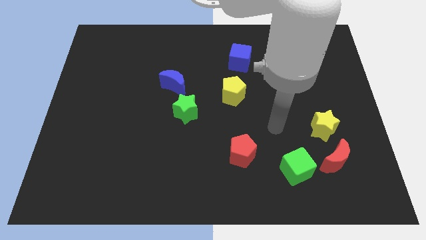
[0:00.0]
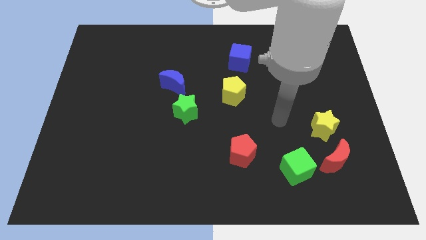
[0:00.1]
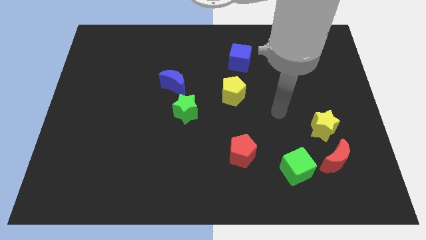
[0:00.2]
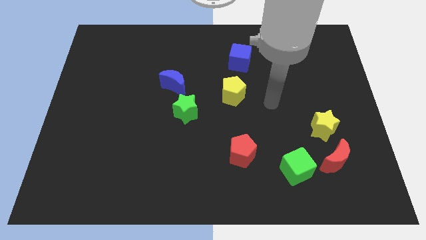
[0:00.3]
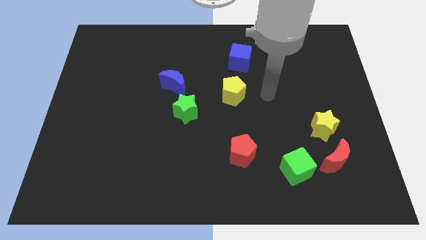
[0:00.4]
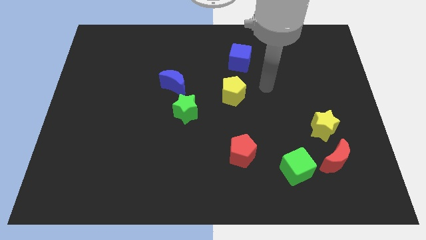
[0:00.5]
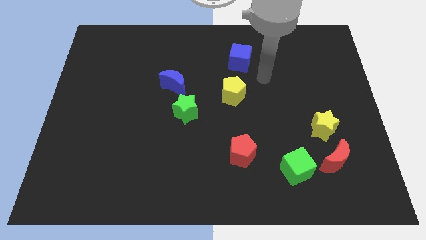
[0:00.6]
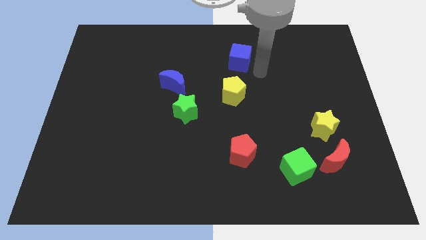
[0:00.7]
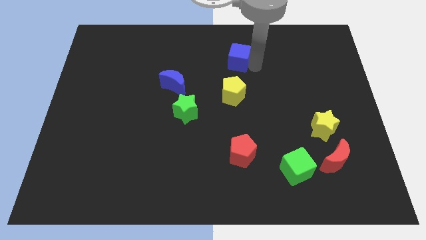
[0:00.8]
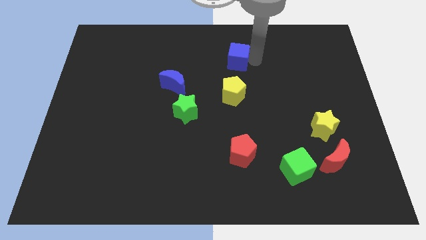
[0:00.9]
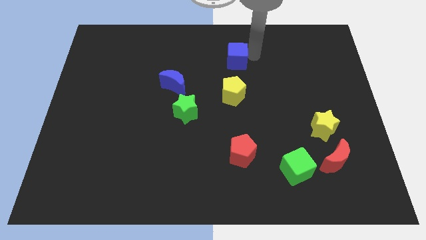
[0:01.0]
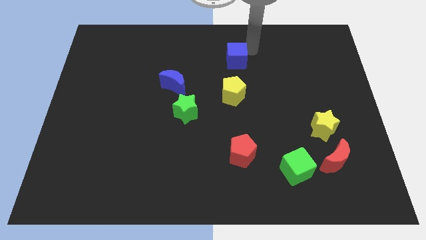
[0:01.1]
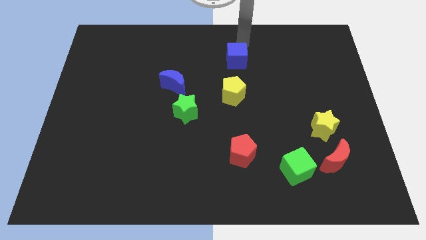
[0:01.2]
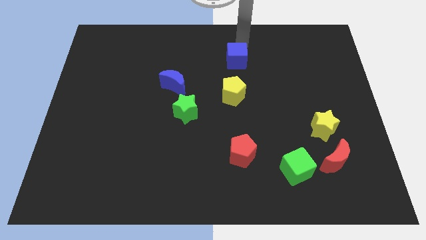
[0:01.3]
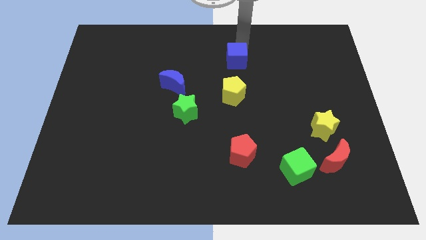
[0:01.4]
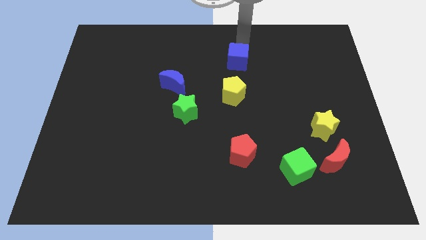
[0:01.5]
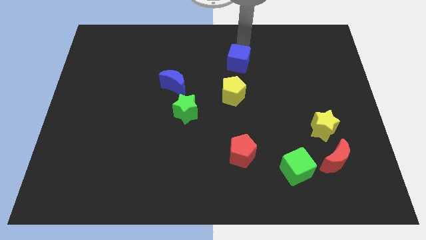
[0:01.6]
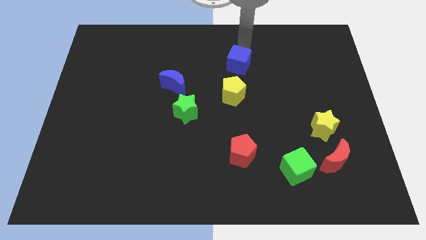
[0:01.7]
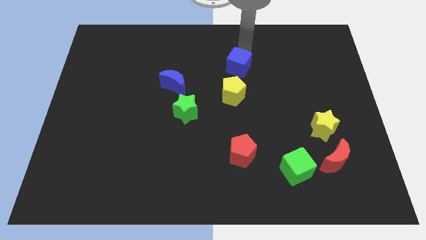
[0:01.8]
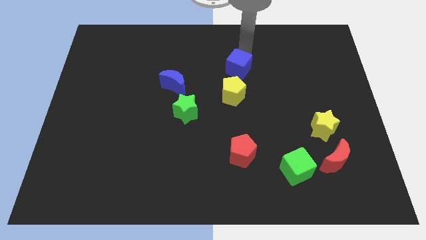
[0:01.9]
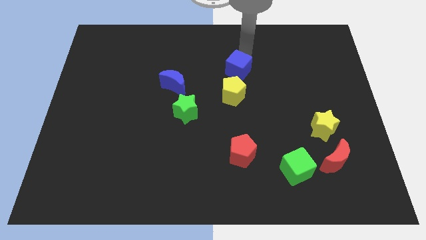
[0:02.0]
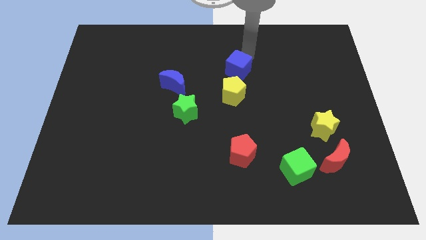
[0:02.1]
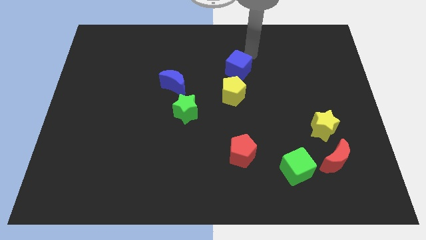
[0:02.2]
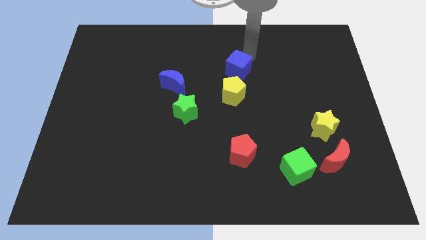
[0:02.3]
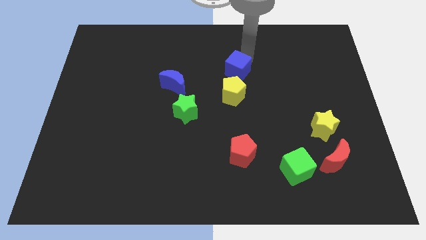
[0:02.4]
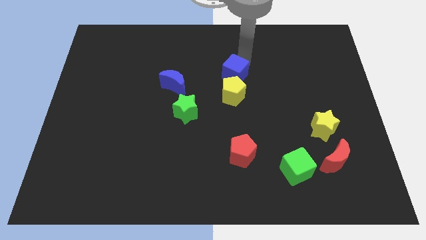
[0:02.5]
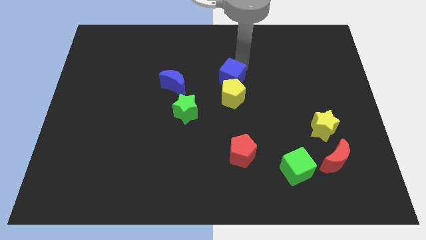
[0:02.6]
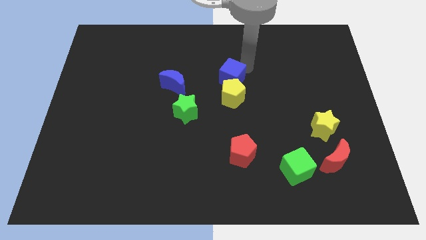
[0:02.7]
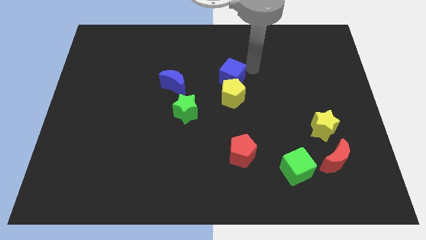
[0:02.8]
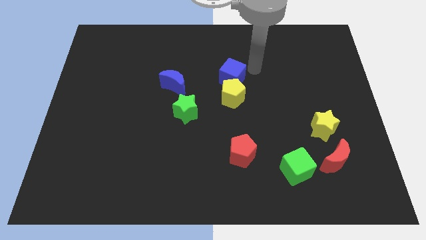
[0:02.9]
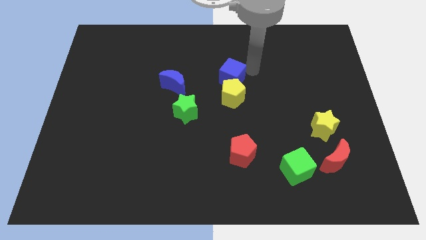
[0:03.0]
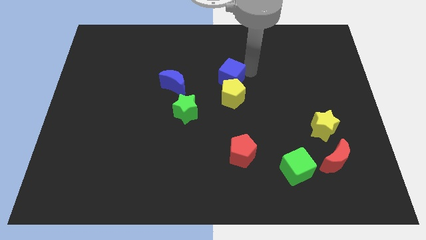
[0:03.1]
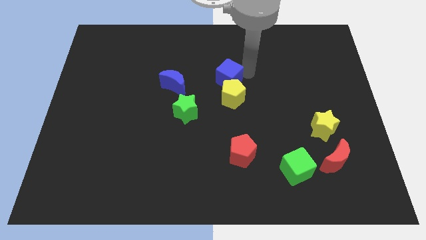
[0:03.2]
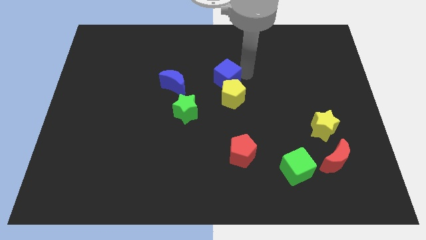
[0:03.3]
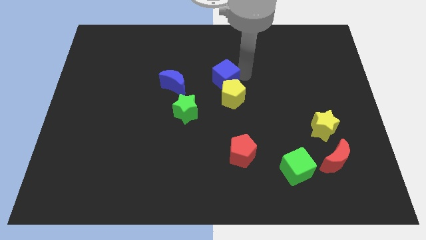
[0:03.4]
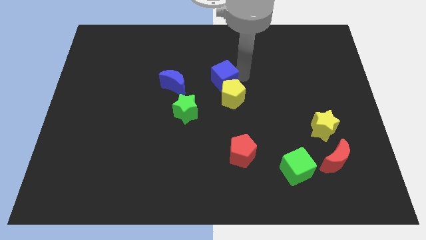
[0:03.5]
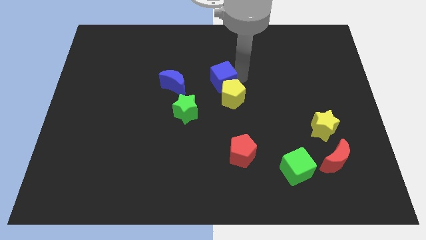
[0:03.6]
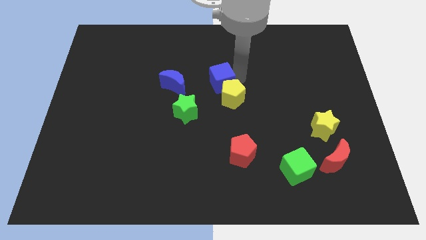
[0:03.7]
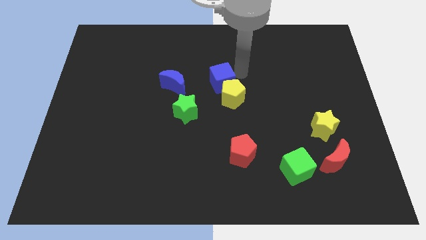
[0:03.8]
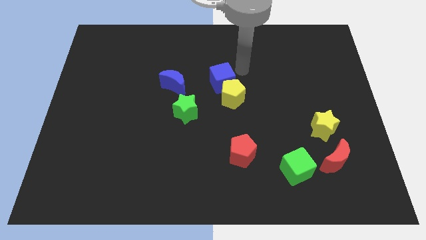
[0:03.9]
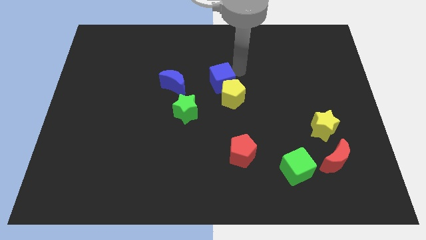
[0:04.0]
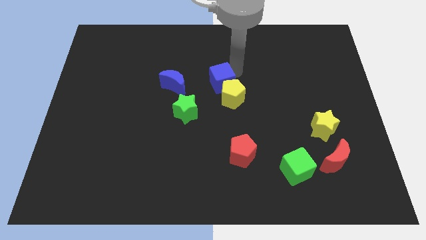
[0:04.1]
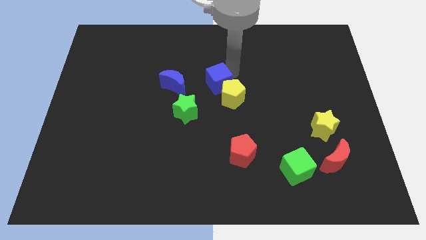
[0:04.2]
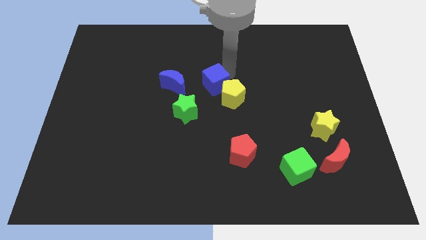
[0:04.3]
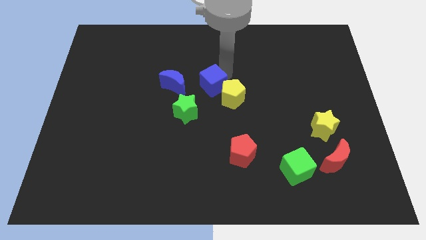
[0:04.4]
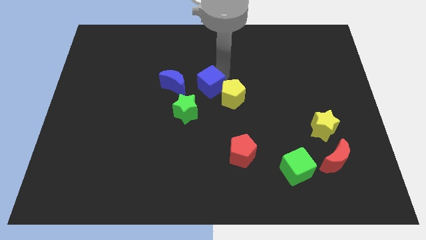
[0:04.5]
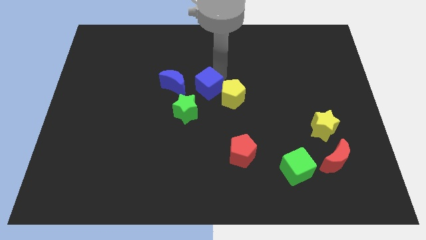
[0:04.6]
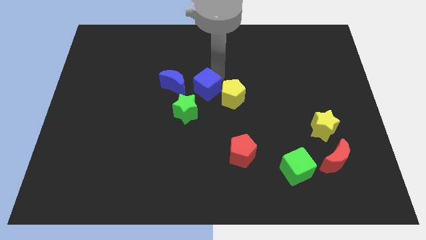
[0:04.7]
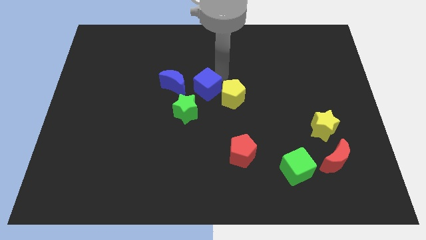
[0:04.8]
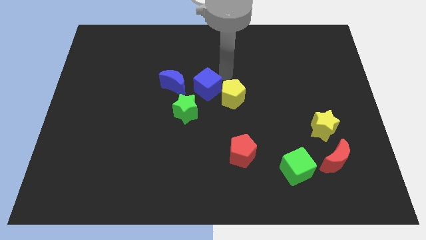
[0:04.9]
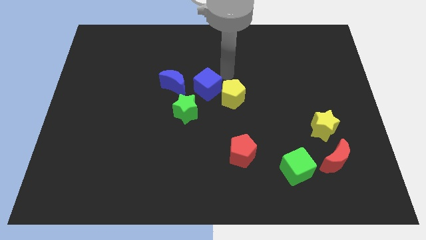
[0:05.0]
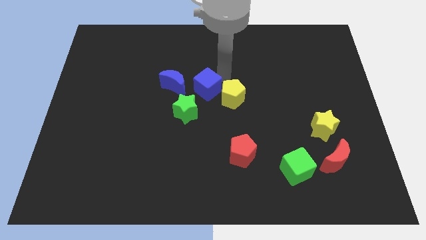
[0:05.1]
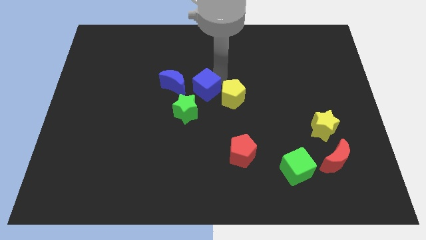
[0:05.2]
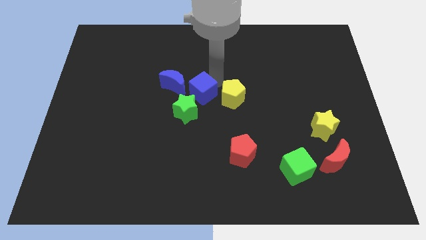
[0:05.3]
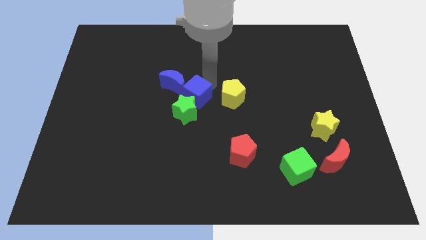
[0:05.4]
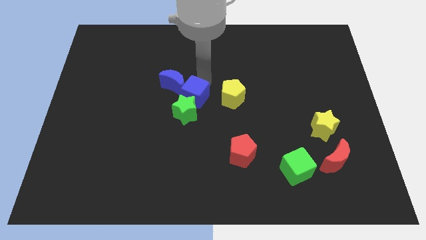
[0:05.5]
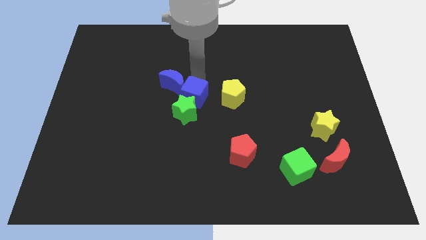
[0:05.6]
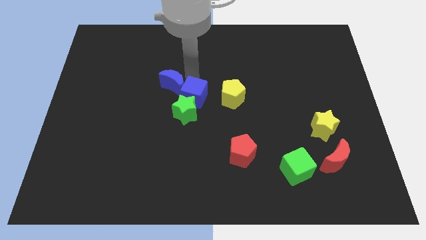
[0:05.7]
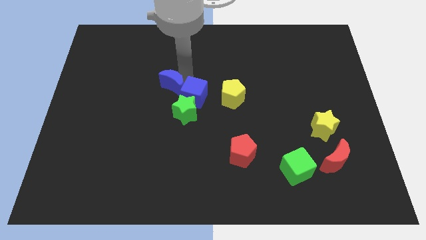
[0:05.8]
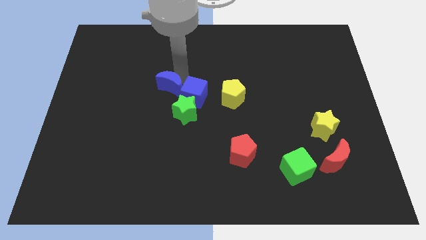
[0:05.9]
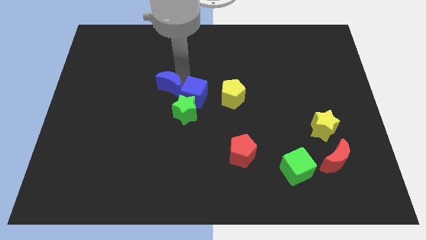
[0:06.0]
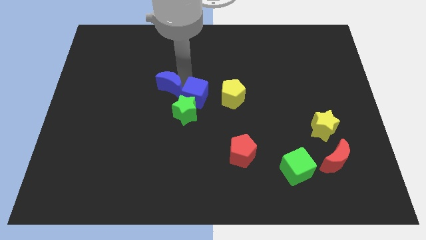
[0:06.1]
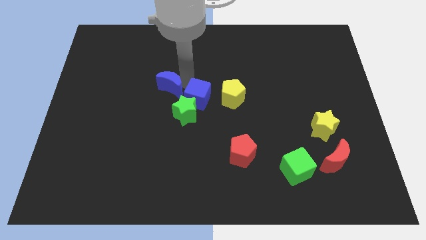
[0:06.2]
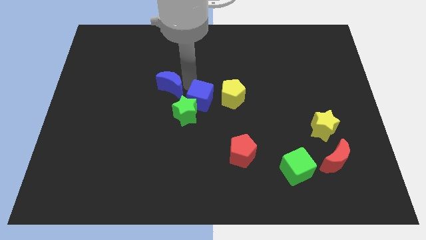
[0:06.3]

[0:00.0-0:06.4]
push the blue cube to the bottom left side of the yellow pentagon

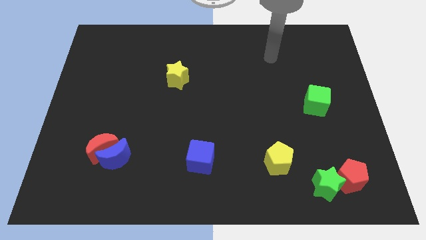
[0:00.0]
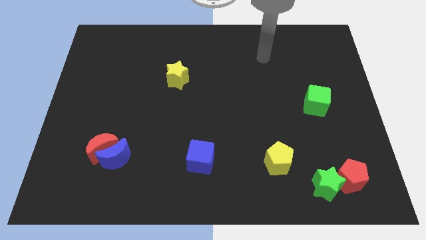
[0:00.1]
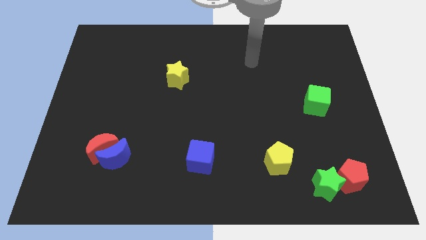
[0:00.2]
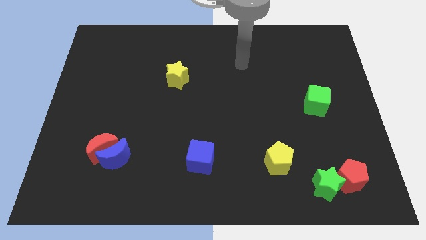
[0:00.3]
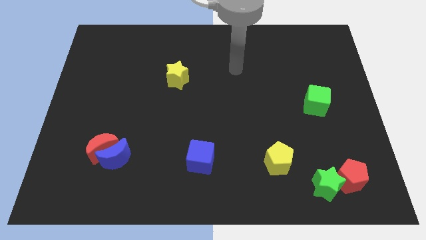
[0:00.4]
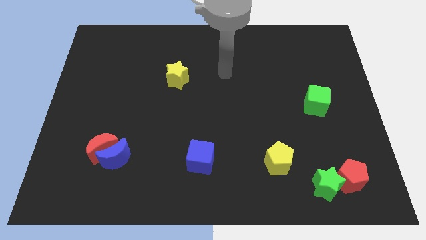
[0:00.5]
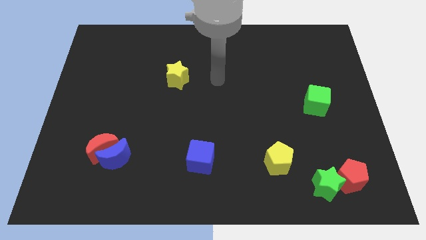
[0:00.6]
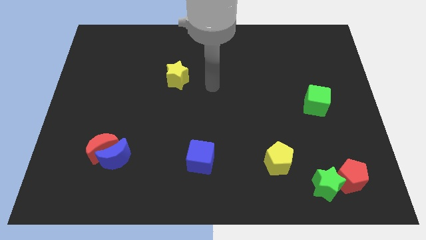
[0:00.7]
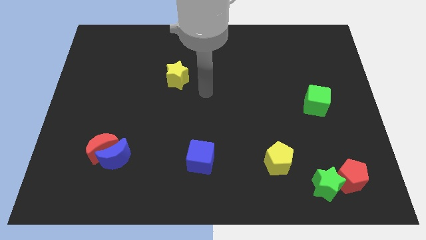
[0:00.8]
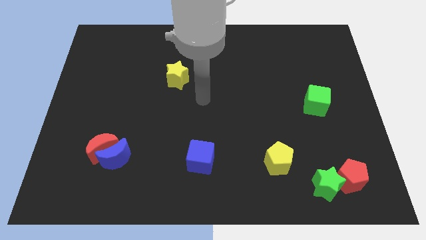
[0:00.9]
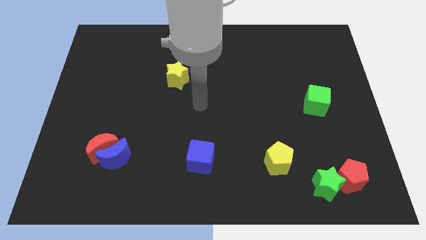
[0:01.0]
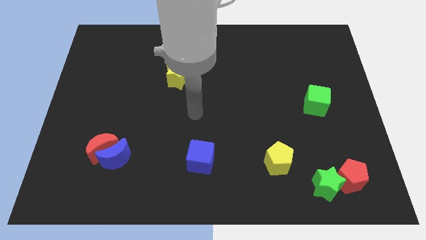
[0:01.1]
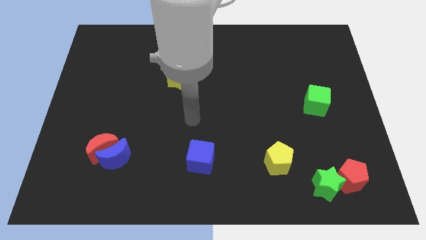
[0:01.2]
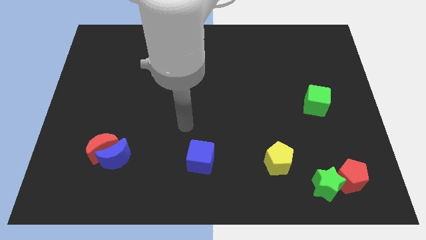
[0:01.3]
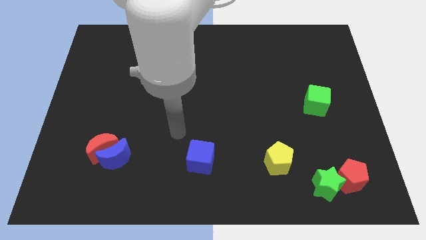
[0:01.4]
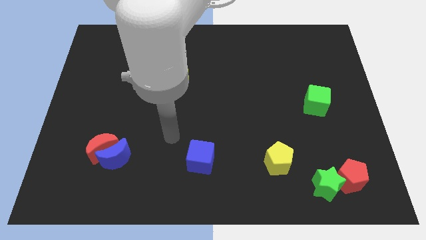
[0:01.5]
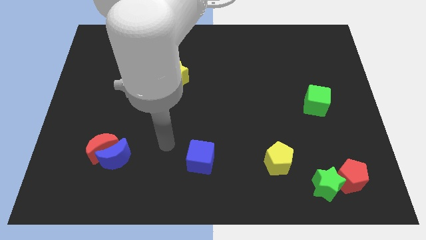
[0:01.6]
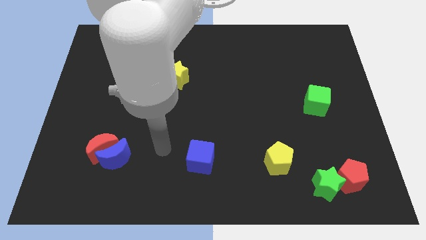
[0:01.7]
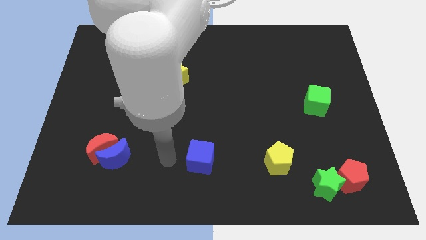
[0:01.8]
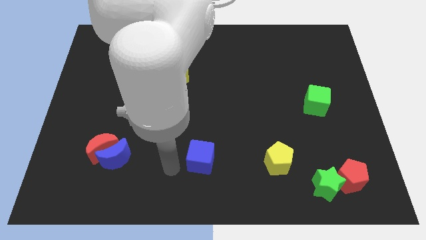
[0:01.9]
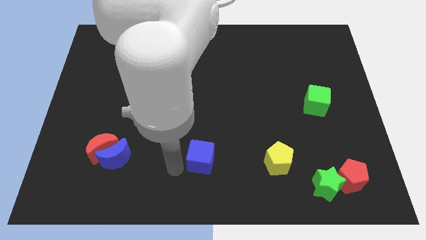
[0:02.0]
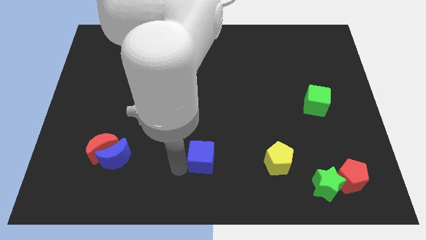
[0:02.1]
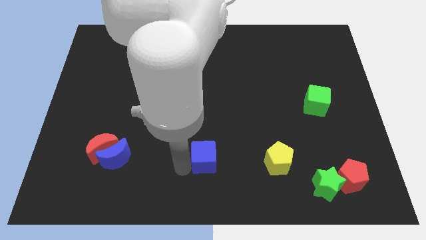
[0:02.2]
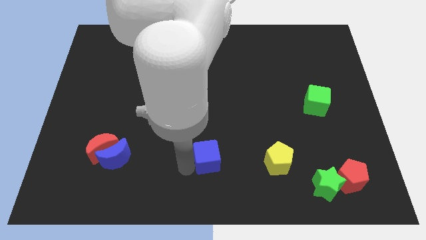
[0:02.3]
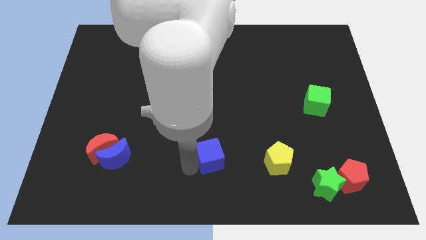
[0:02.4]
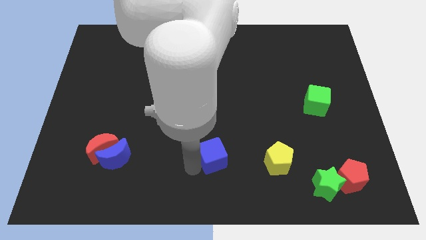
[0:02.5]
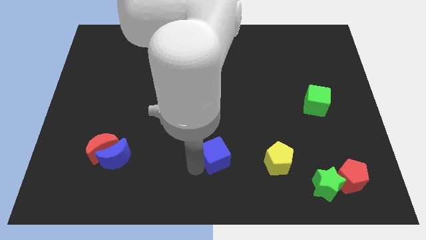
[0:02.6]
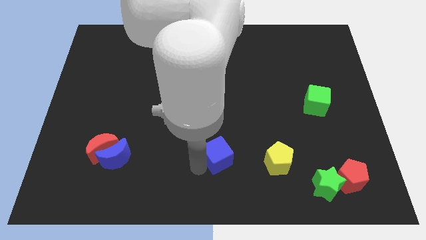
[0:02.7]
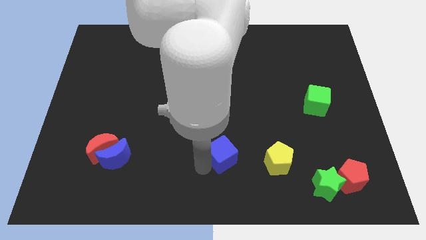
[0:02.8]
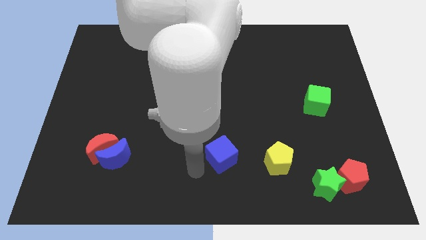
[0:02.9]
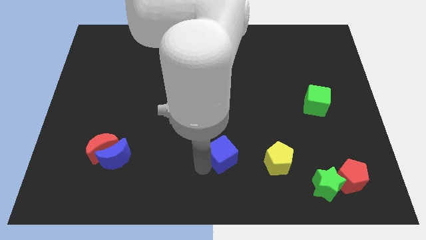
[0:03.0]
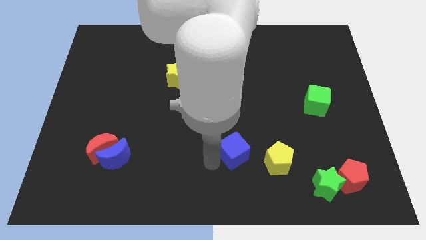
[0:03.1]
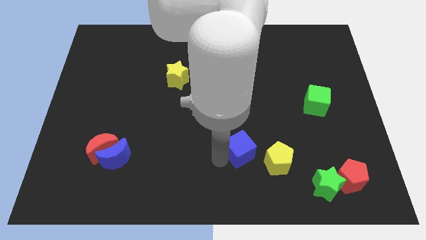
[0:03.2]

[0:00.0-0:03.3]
push the blue cube to the top left of the yellow pentagon
